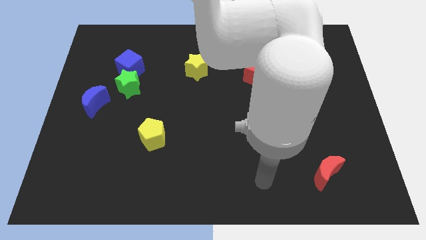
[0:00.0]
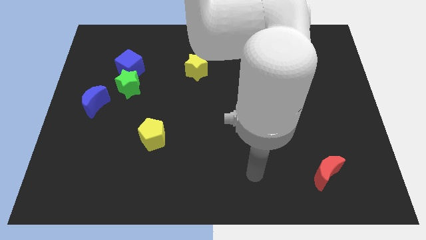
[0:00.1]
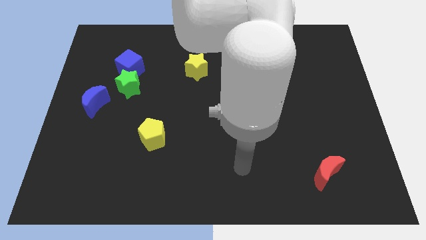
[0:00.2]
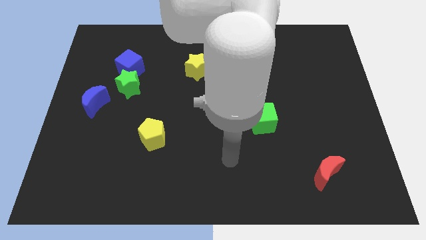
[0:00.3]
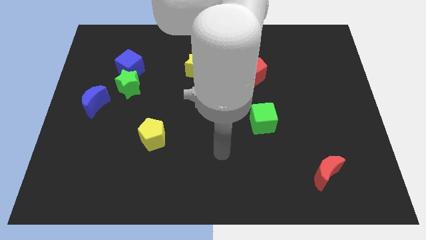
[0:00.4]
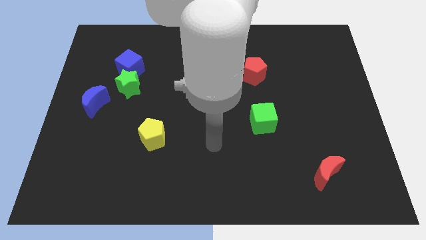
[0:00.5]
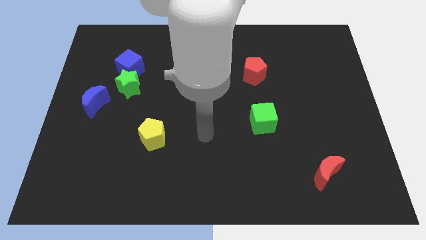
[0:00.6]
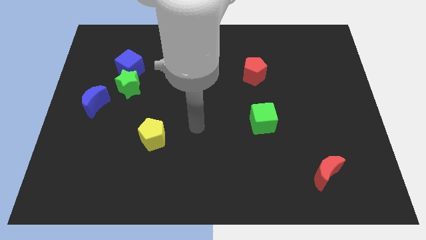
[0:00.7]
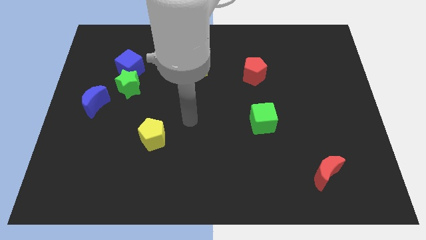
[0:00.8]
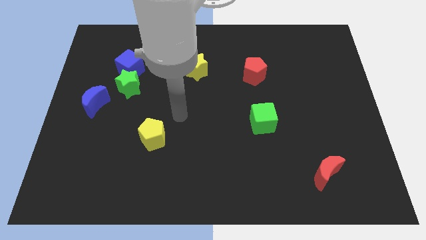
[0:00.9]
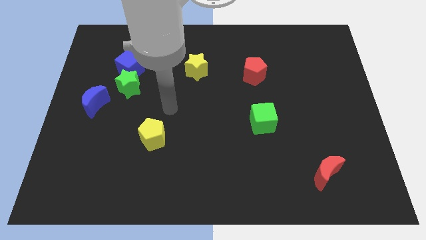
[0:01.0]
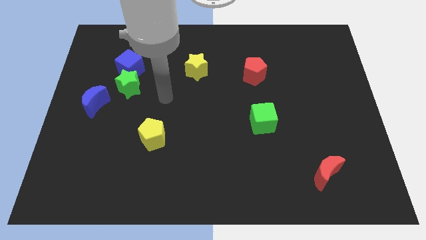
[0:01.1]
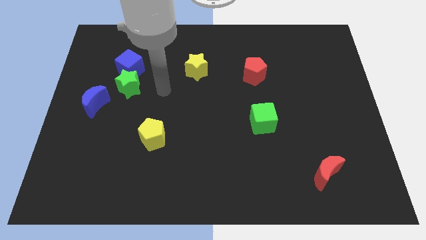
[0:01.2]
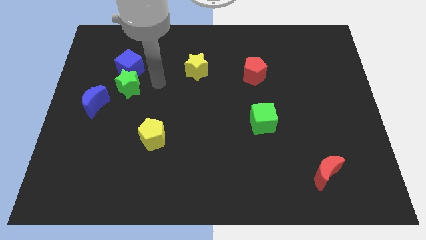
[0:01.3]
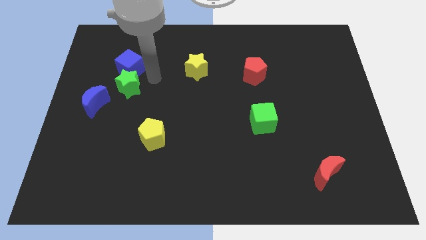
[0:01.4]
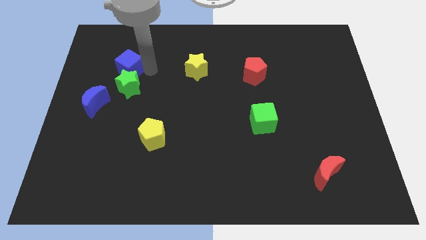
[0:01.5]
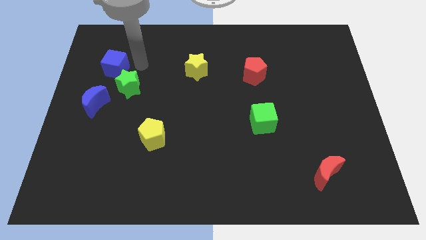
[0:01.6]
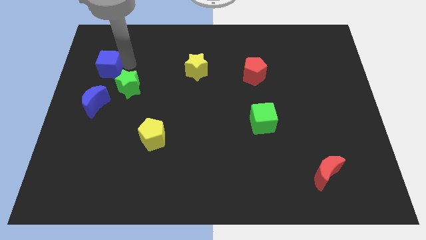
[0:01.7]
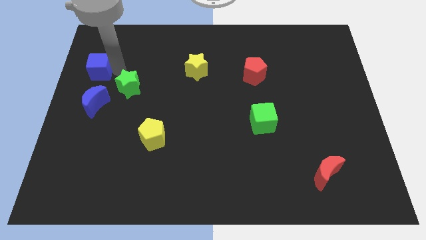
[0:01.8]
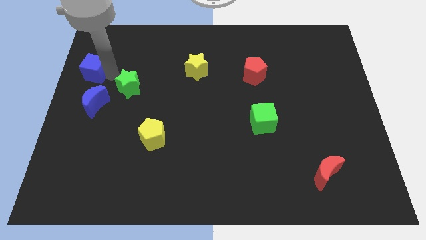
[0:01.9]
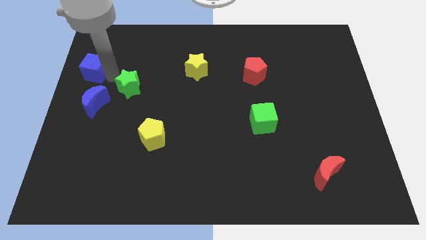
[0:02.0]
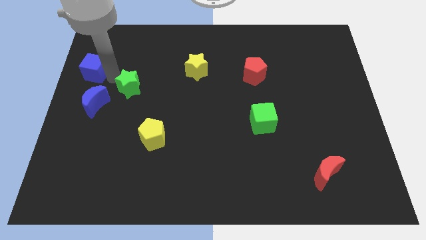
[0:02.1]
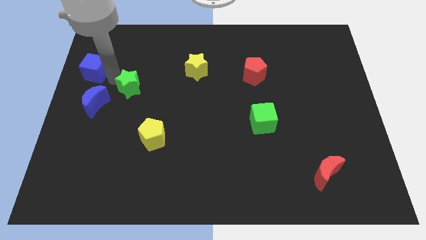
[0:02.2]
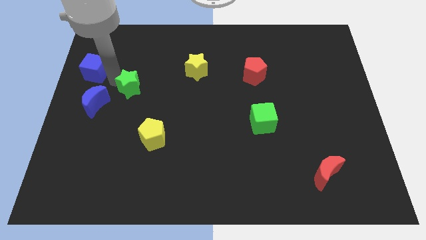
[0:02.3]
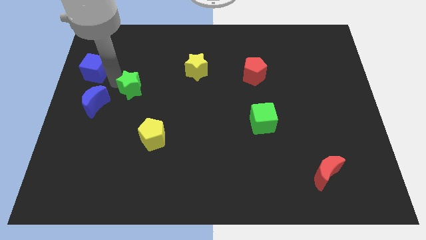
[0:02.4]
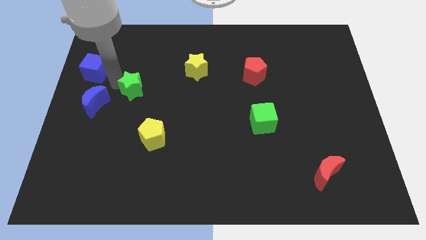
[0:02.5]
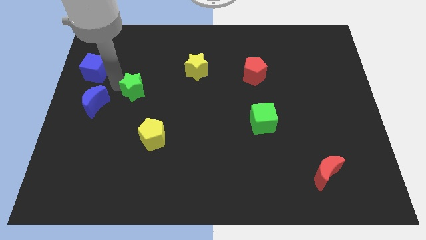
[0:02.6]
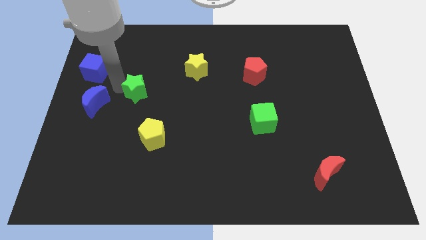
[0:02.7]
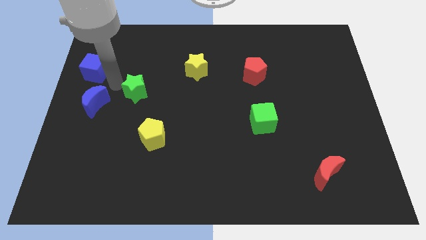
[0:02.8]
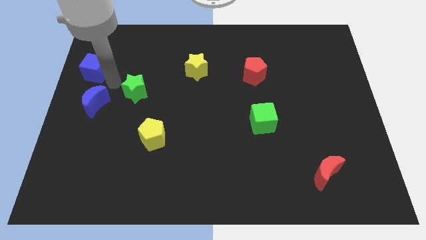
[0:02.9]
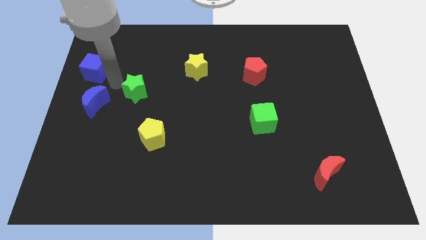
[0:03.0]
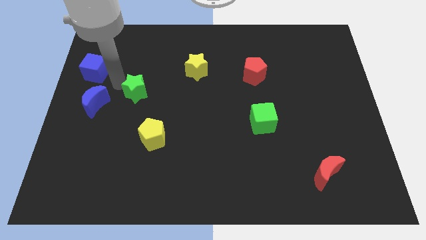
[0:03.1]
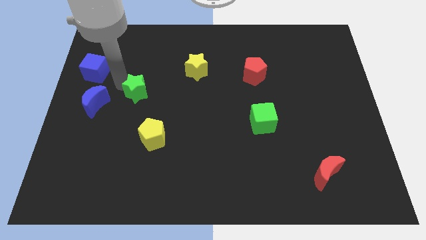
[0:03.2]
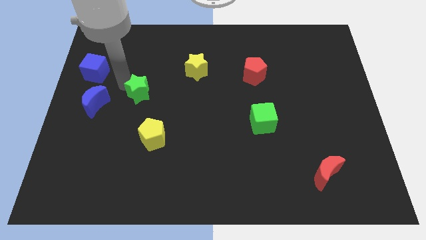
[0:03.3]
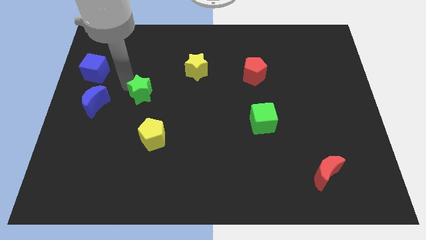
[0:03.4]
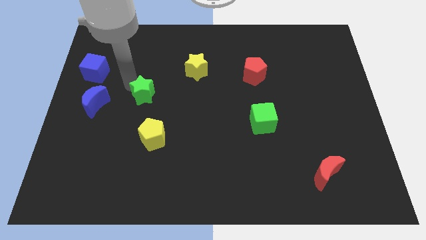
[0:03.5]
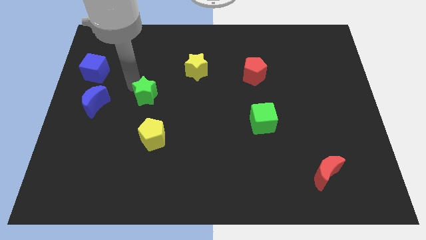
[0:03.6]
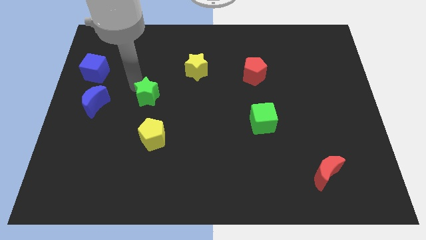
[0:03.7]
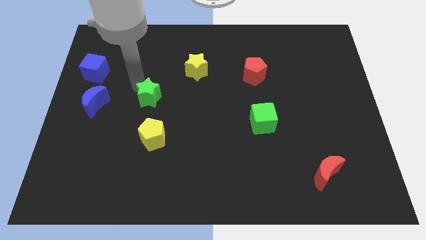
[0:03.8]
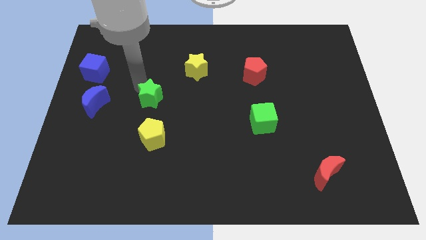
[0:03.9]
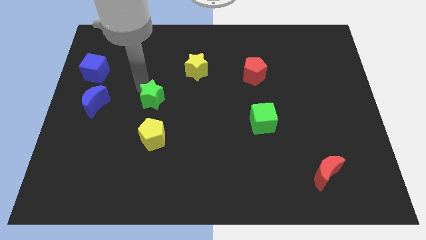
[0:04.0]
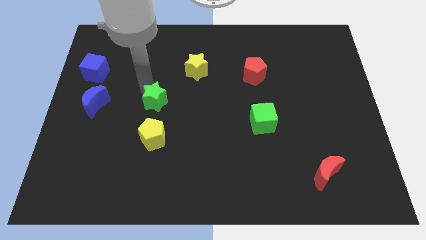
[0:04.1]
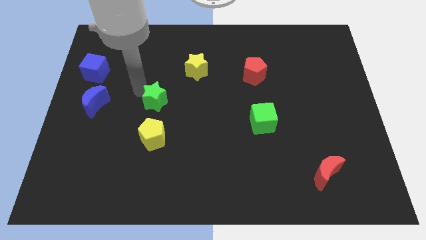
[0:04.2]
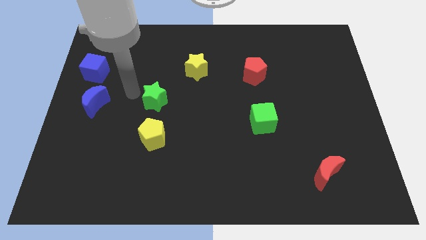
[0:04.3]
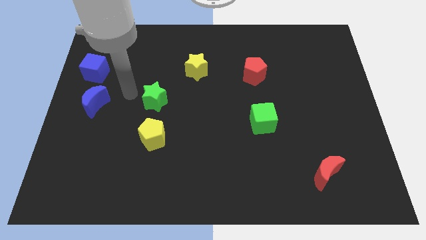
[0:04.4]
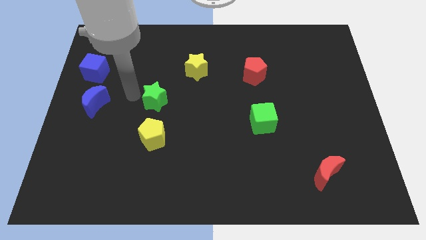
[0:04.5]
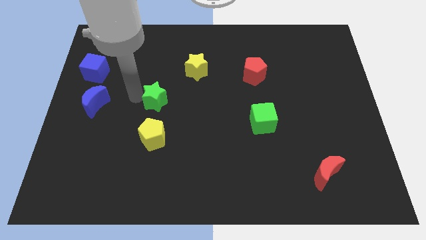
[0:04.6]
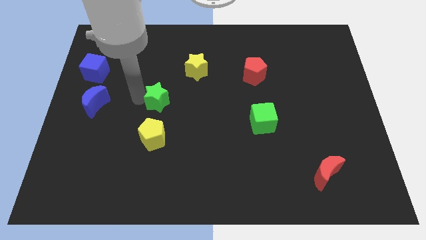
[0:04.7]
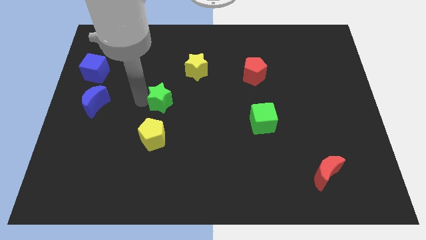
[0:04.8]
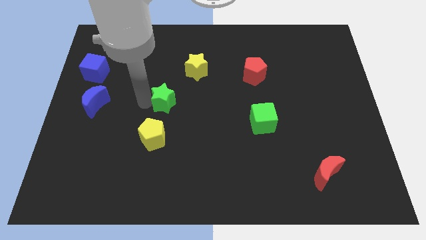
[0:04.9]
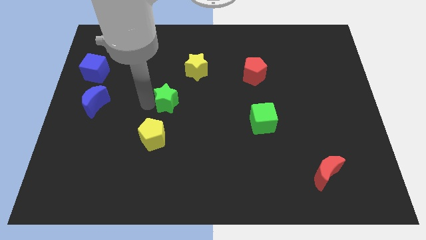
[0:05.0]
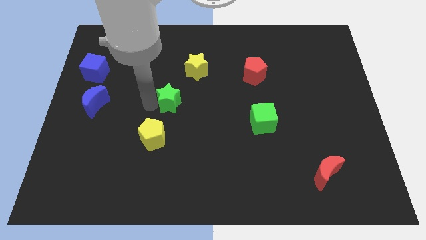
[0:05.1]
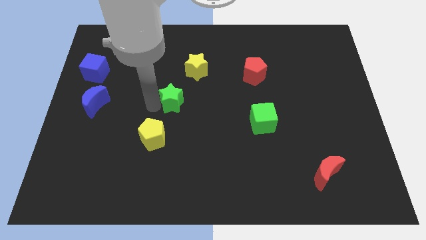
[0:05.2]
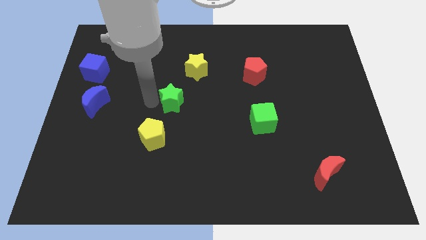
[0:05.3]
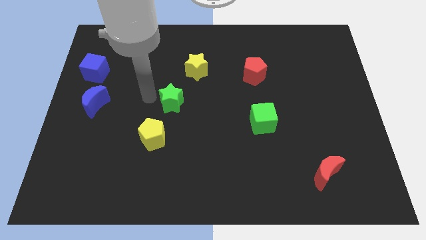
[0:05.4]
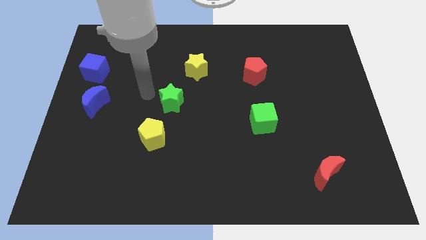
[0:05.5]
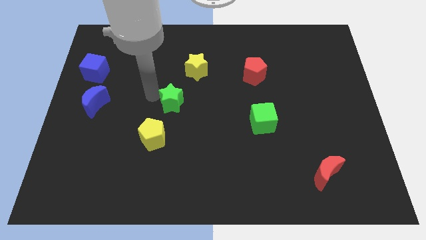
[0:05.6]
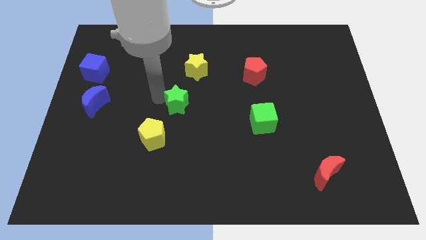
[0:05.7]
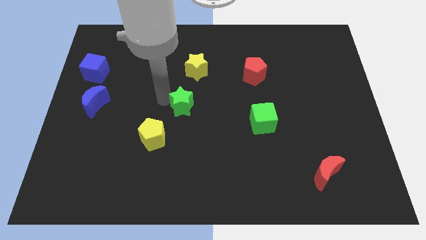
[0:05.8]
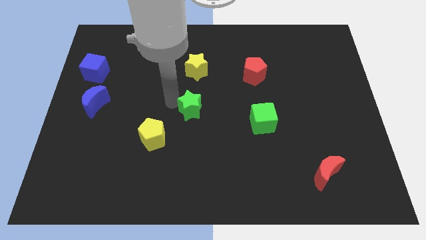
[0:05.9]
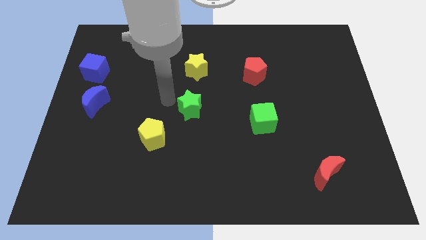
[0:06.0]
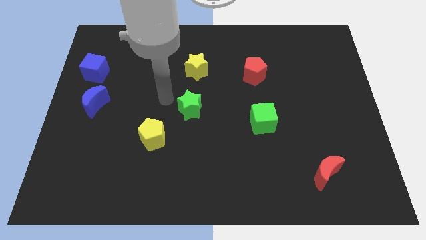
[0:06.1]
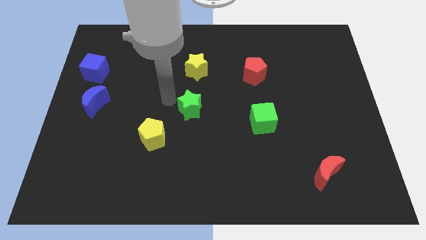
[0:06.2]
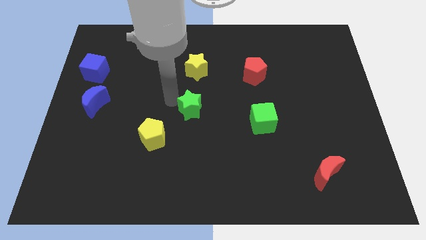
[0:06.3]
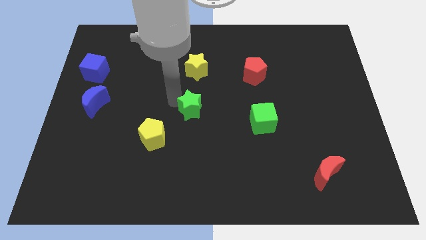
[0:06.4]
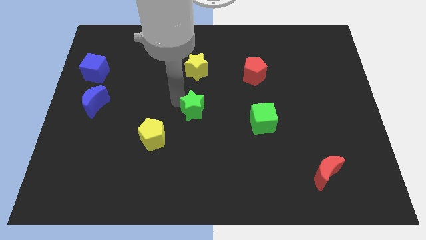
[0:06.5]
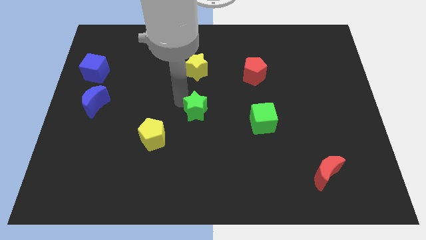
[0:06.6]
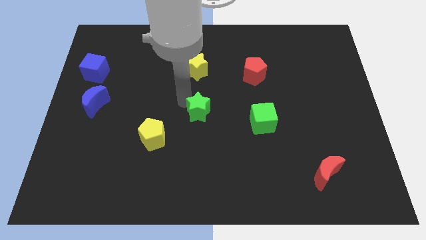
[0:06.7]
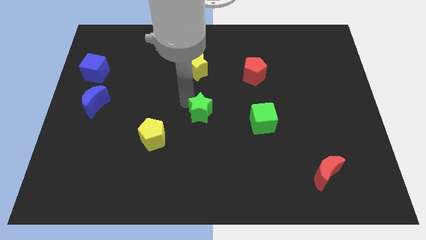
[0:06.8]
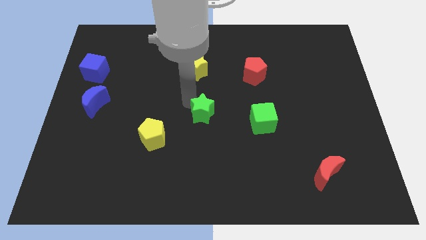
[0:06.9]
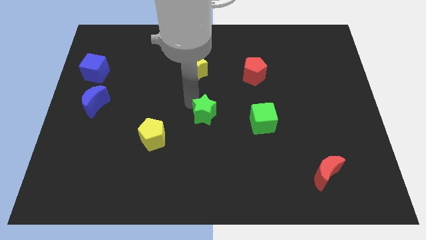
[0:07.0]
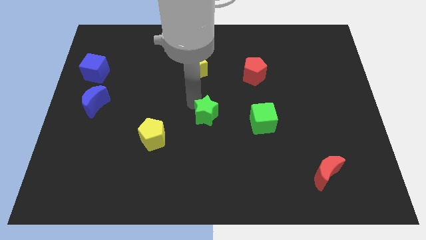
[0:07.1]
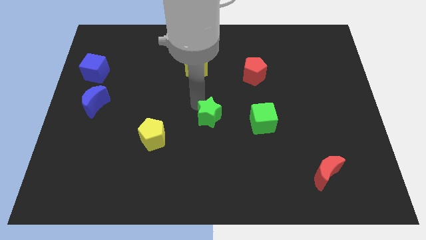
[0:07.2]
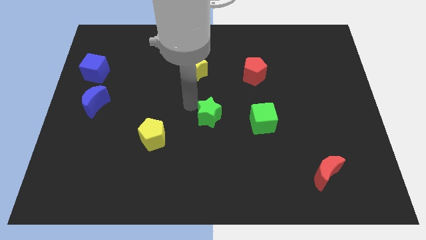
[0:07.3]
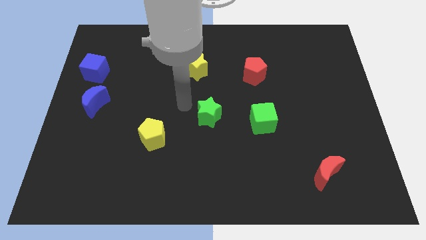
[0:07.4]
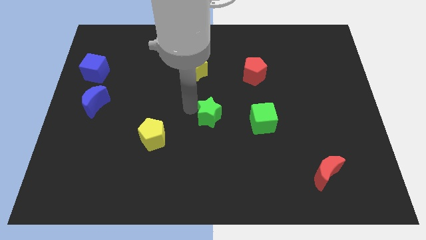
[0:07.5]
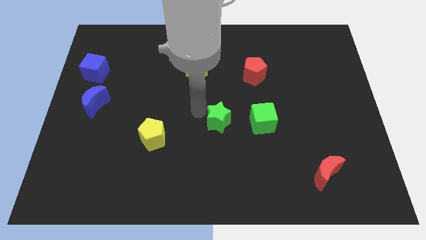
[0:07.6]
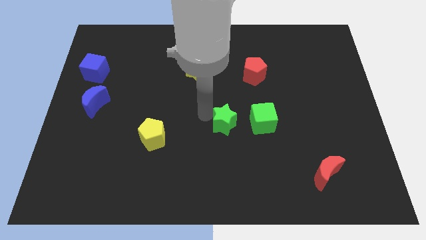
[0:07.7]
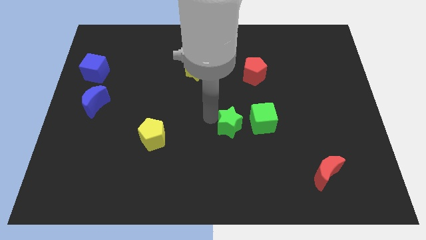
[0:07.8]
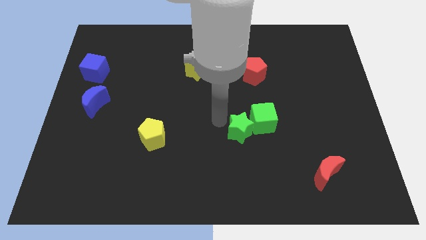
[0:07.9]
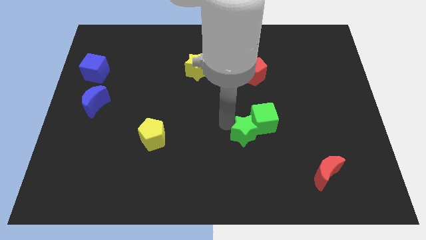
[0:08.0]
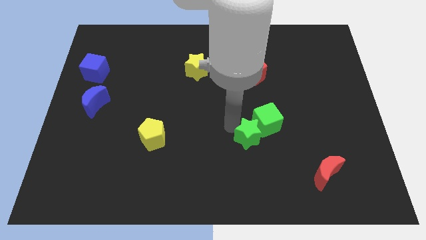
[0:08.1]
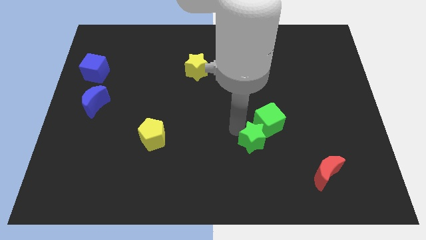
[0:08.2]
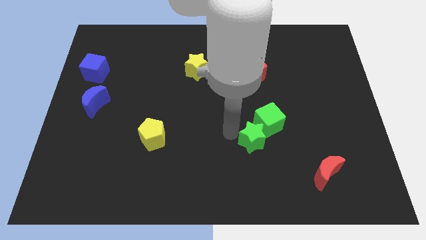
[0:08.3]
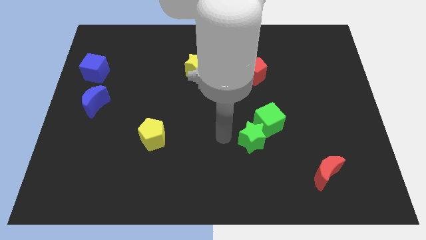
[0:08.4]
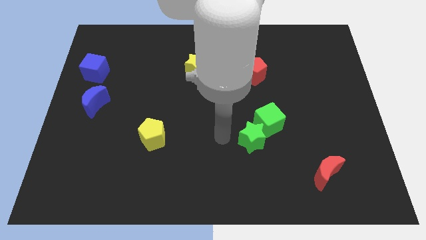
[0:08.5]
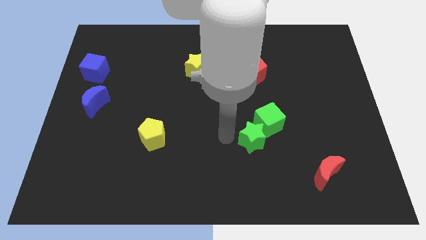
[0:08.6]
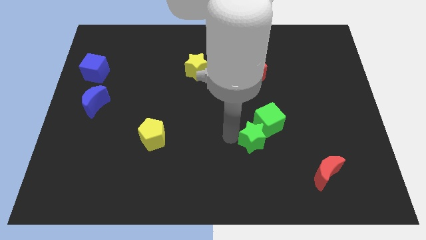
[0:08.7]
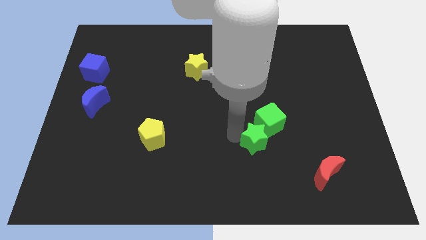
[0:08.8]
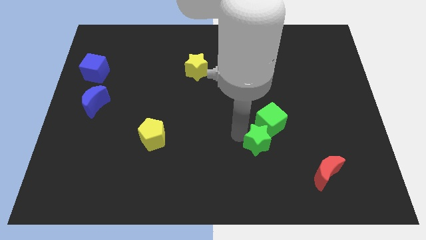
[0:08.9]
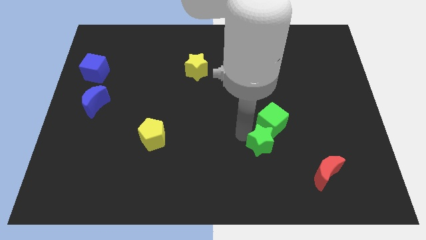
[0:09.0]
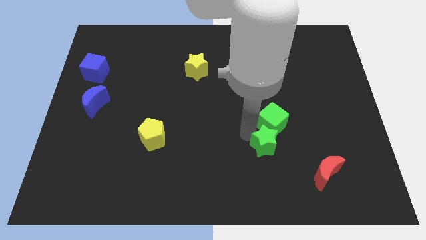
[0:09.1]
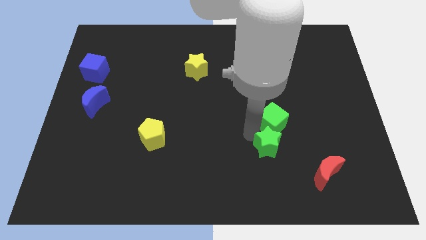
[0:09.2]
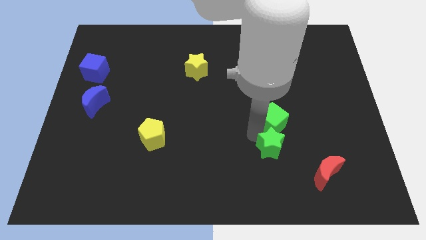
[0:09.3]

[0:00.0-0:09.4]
push the green star diagonally down and to the right of the green cube
